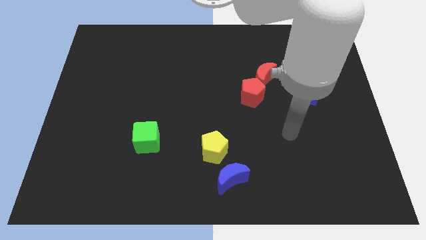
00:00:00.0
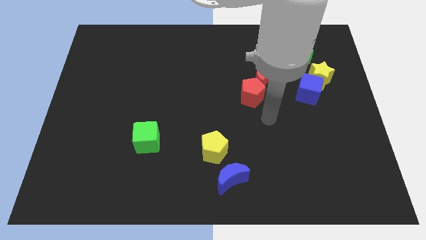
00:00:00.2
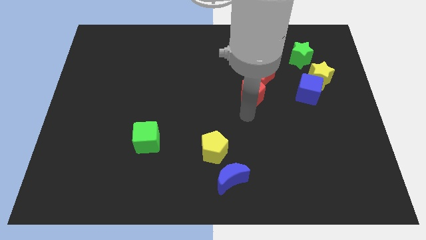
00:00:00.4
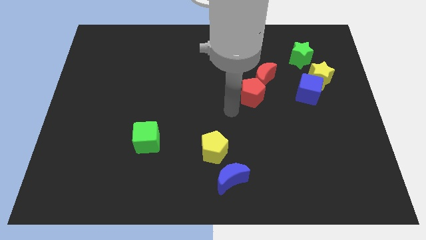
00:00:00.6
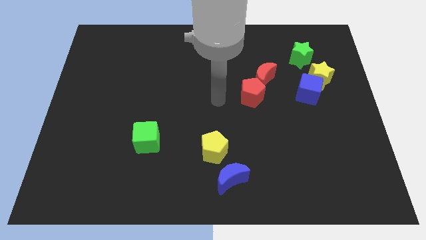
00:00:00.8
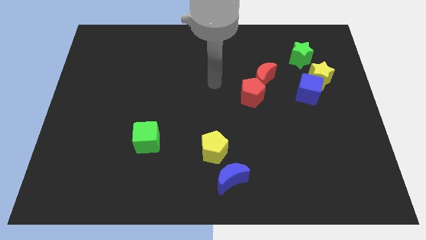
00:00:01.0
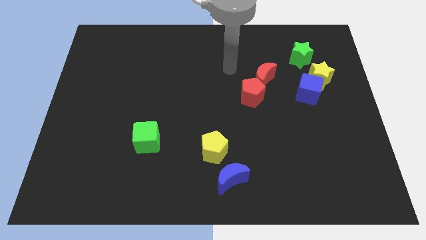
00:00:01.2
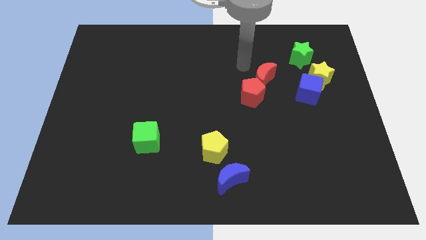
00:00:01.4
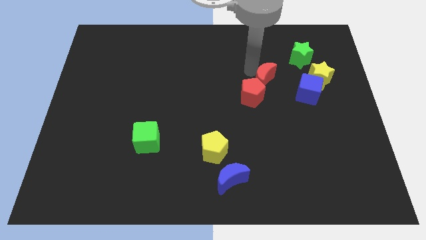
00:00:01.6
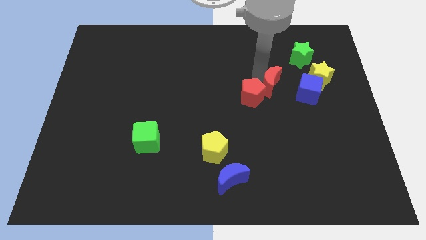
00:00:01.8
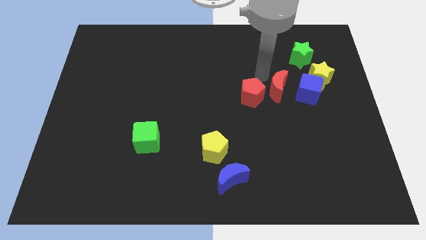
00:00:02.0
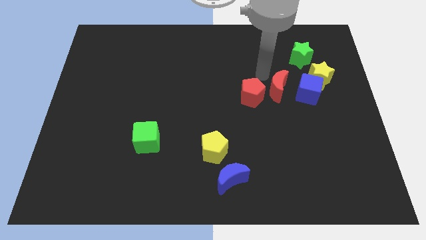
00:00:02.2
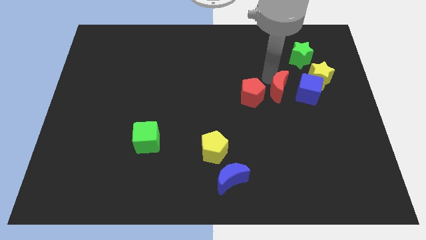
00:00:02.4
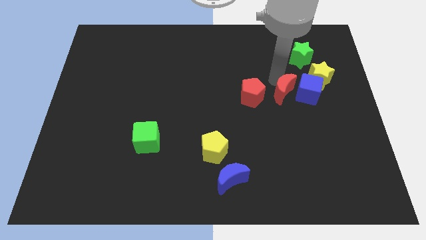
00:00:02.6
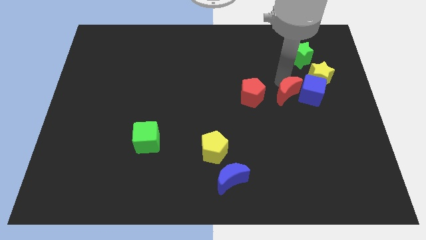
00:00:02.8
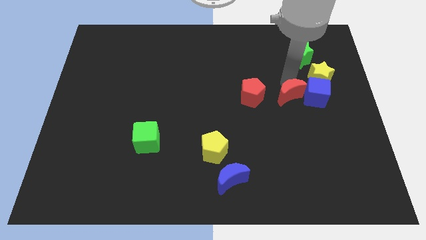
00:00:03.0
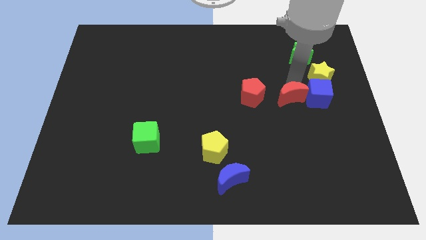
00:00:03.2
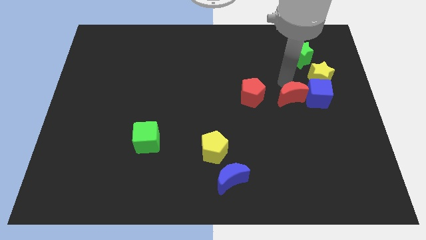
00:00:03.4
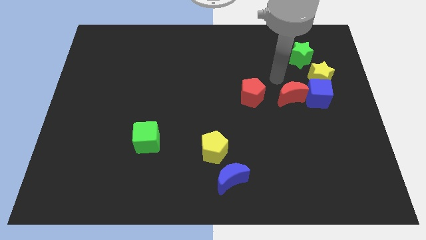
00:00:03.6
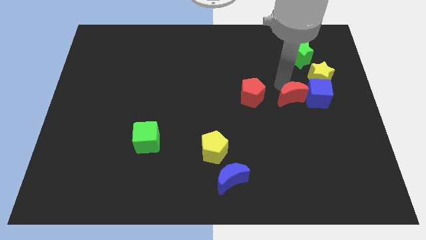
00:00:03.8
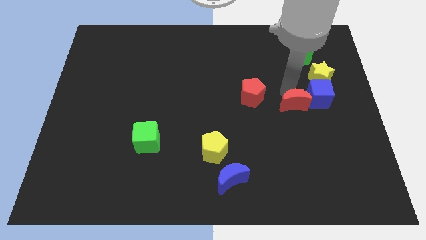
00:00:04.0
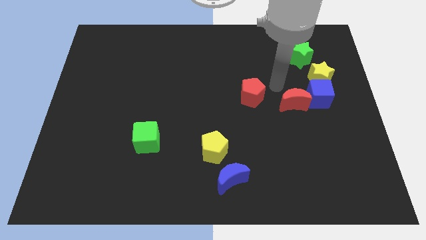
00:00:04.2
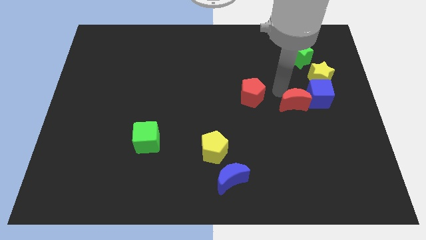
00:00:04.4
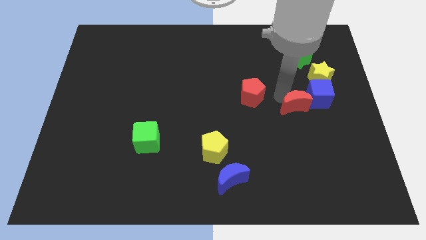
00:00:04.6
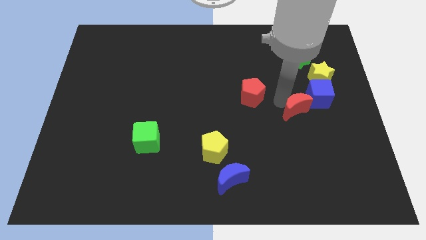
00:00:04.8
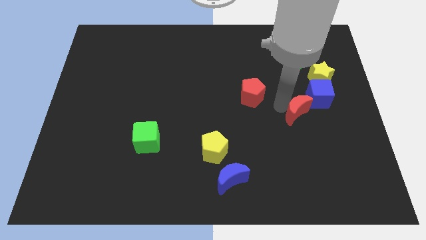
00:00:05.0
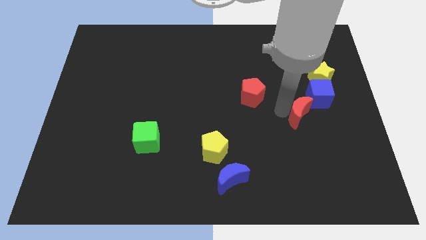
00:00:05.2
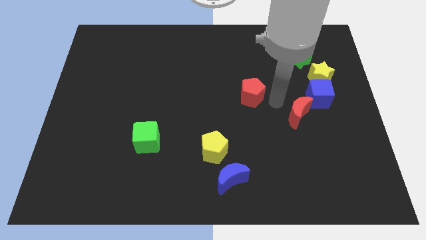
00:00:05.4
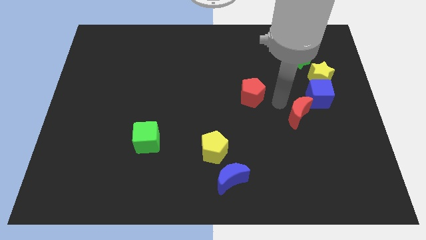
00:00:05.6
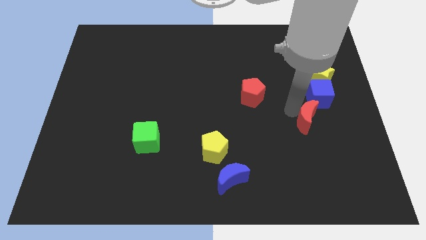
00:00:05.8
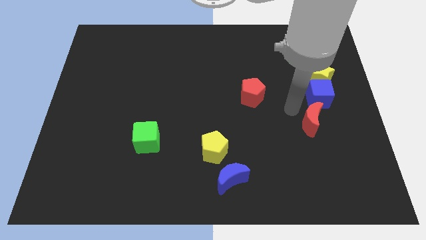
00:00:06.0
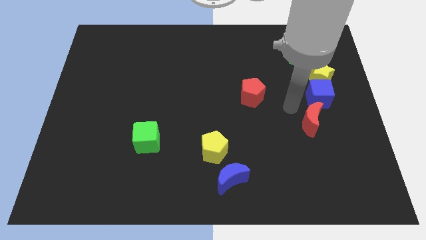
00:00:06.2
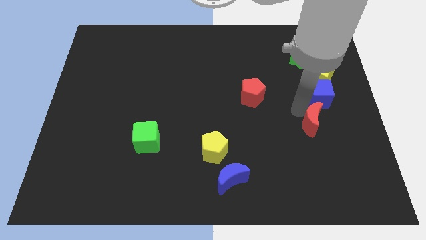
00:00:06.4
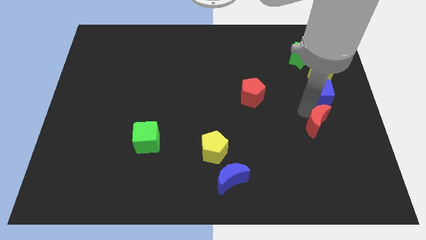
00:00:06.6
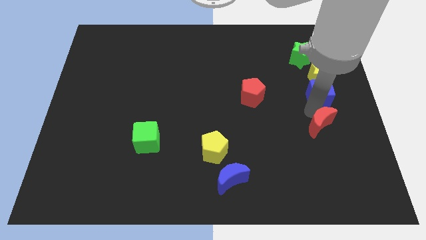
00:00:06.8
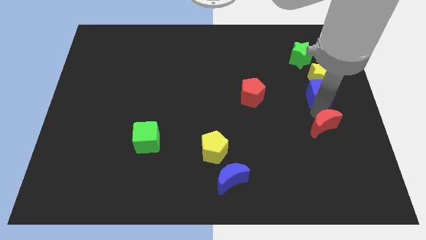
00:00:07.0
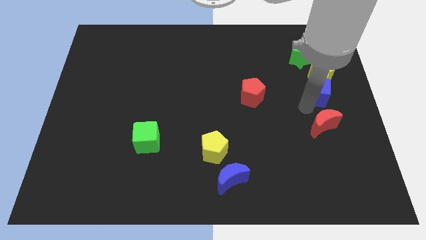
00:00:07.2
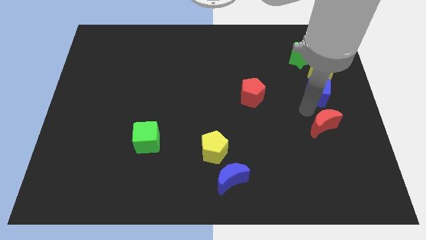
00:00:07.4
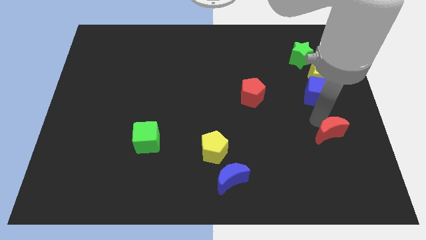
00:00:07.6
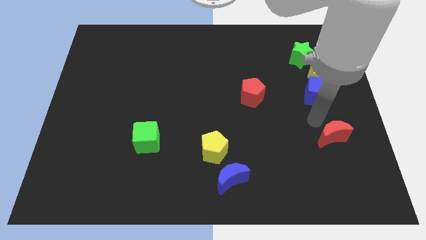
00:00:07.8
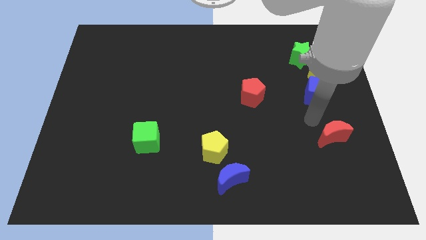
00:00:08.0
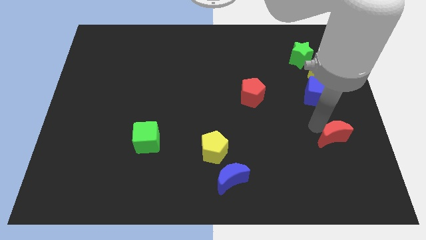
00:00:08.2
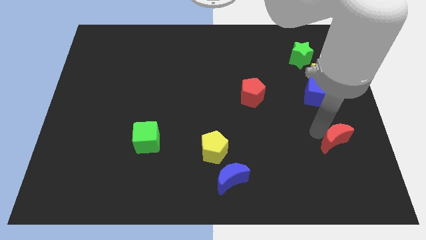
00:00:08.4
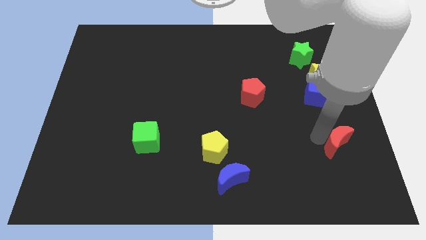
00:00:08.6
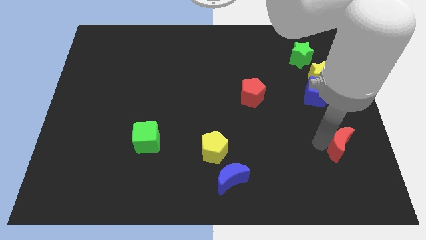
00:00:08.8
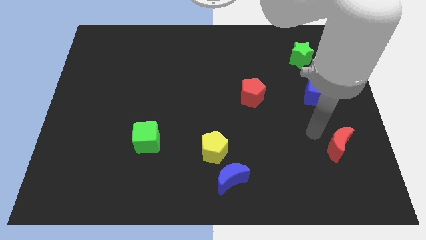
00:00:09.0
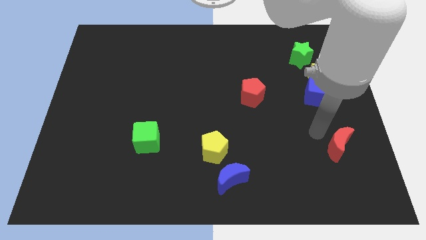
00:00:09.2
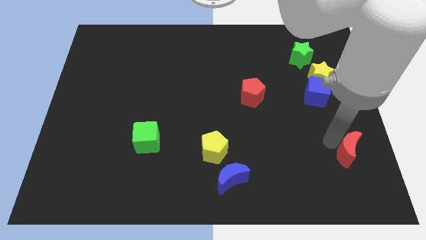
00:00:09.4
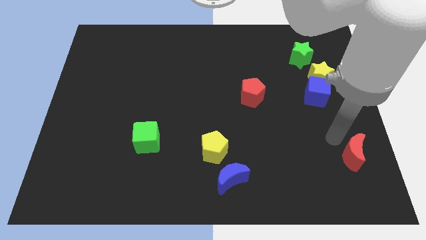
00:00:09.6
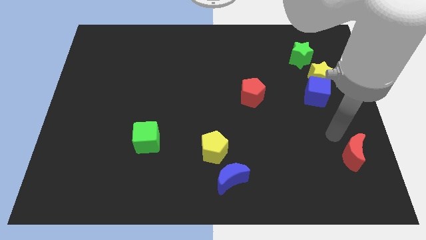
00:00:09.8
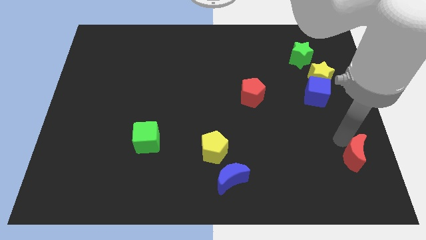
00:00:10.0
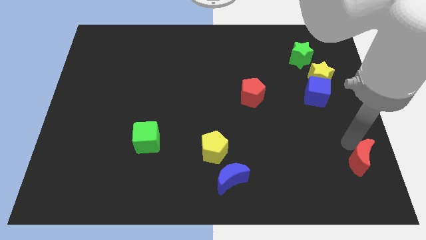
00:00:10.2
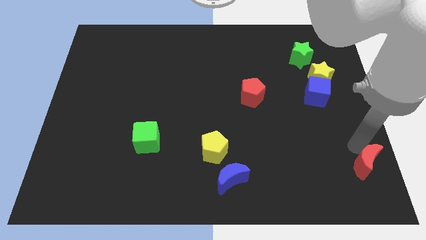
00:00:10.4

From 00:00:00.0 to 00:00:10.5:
move the red moon to the lower right corner
